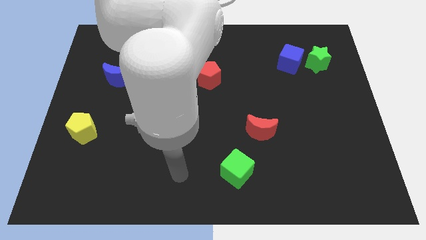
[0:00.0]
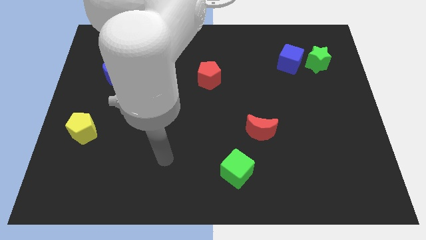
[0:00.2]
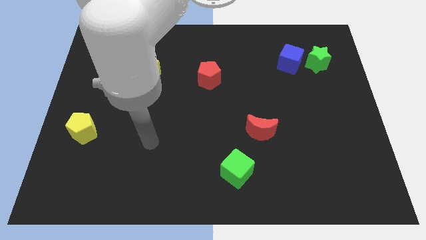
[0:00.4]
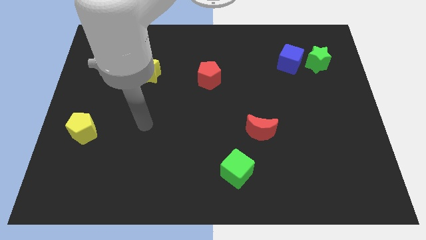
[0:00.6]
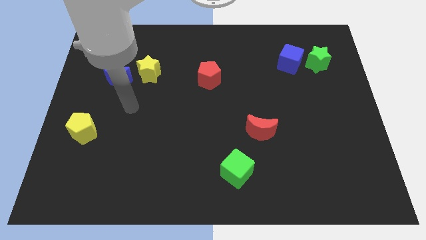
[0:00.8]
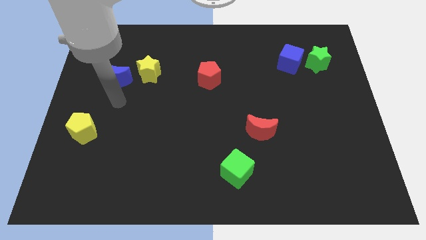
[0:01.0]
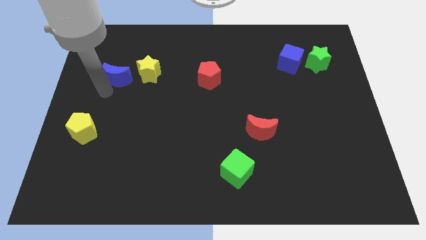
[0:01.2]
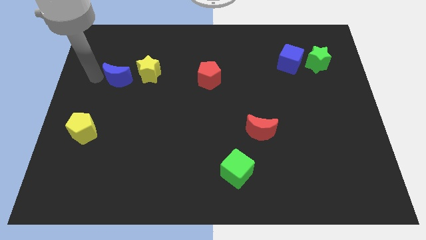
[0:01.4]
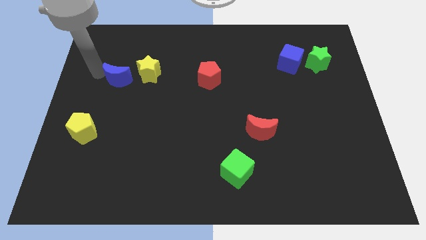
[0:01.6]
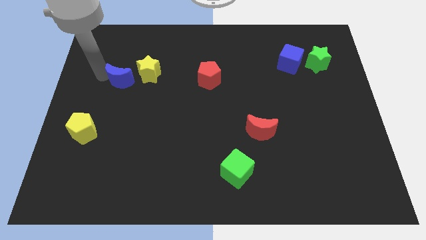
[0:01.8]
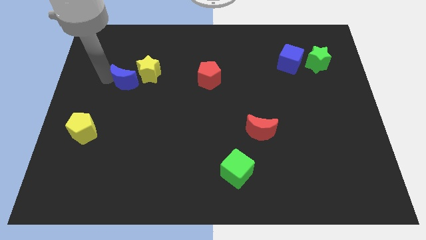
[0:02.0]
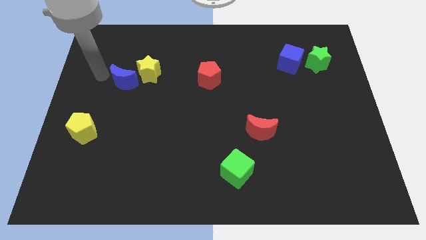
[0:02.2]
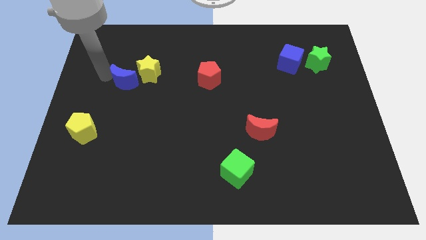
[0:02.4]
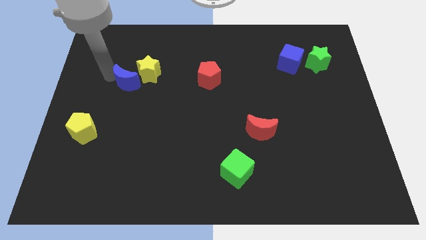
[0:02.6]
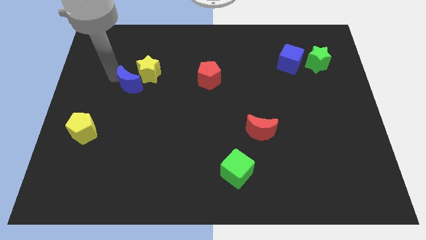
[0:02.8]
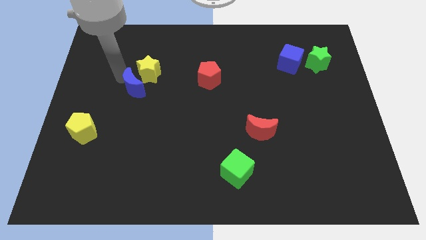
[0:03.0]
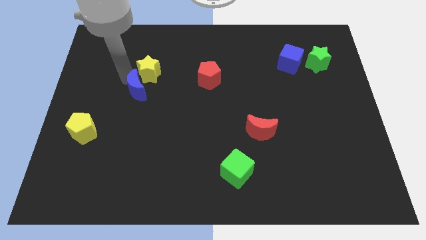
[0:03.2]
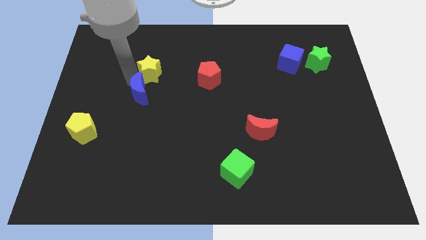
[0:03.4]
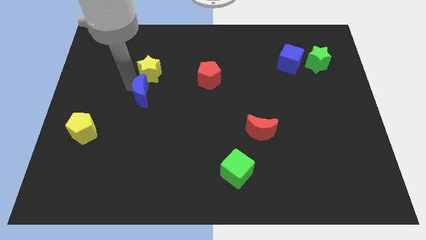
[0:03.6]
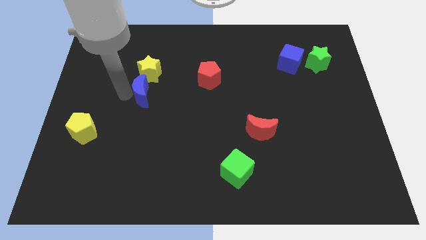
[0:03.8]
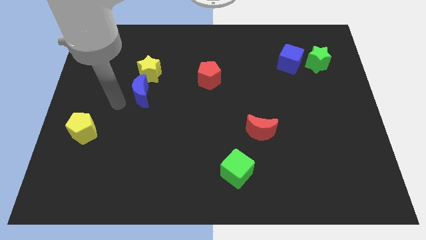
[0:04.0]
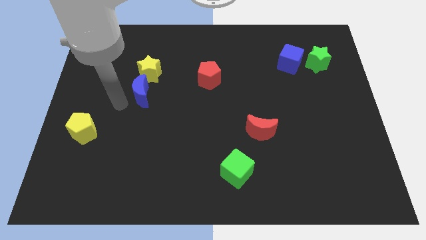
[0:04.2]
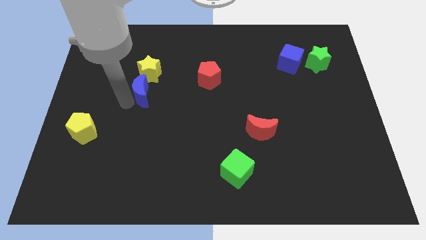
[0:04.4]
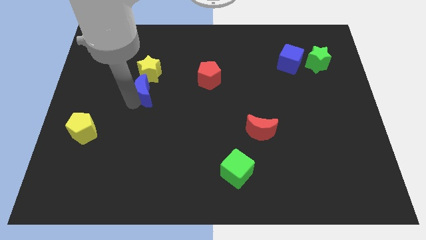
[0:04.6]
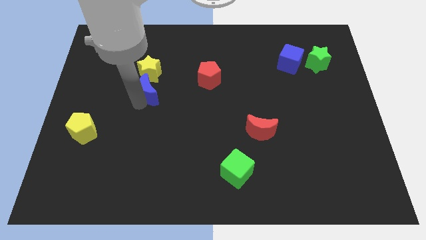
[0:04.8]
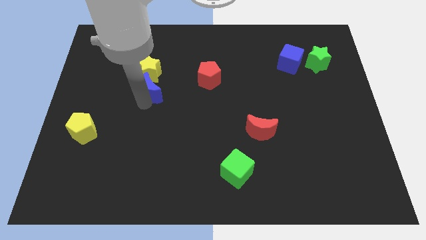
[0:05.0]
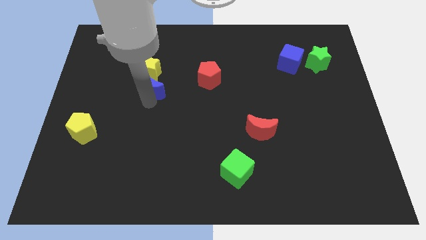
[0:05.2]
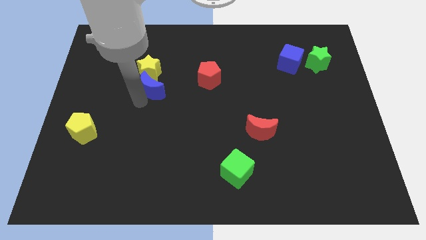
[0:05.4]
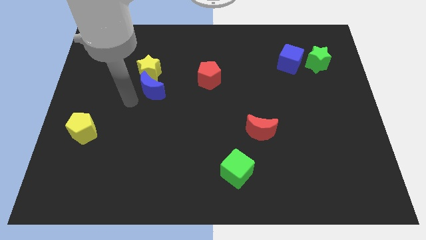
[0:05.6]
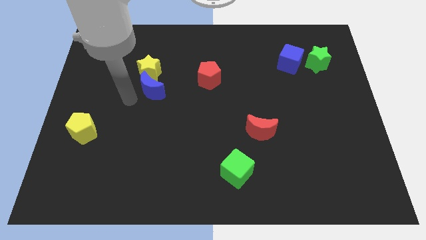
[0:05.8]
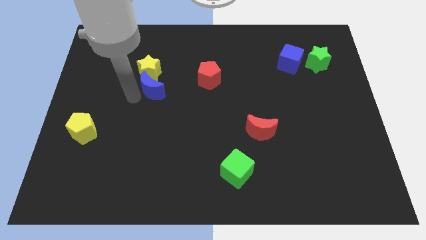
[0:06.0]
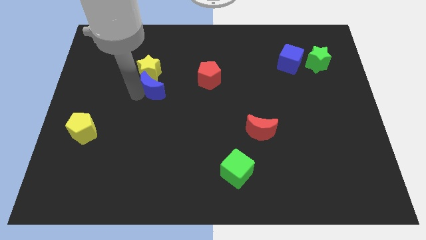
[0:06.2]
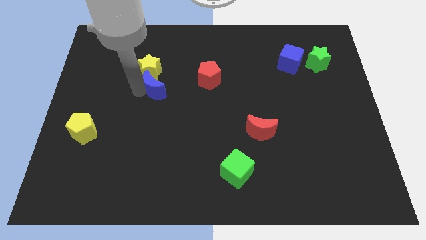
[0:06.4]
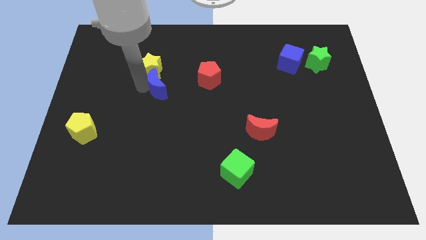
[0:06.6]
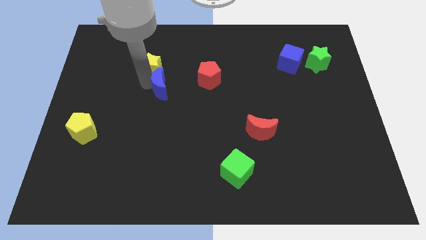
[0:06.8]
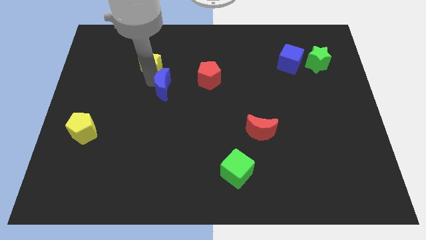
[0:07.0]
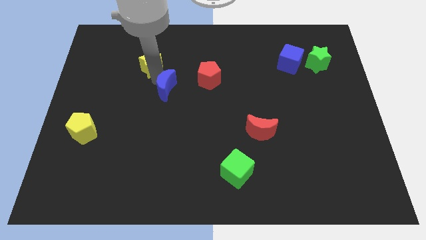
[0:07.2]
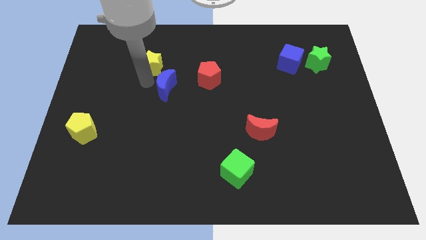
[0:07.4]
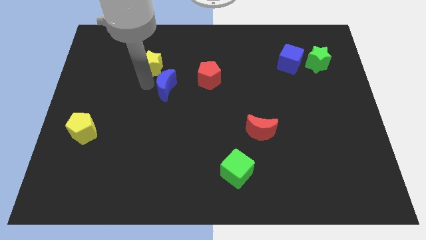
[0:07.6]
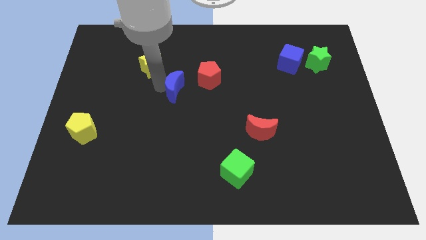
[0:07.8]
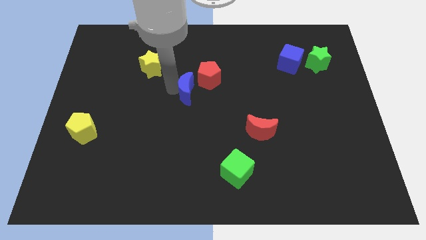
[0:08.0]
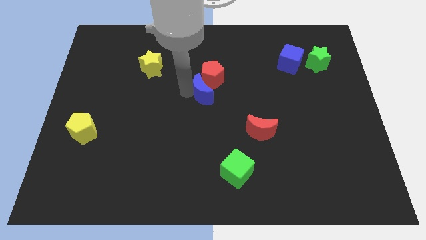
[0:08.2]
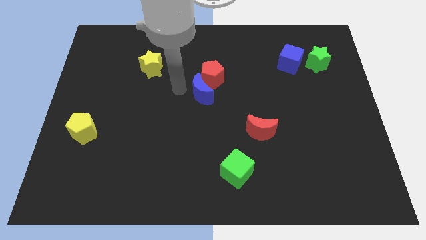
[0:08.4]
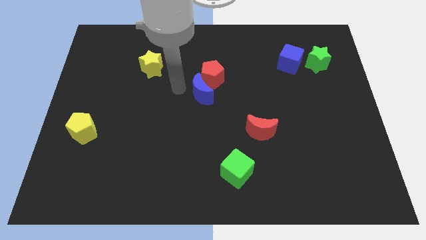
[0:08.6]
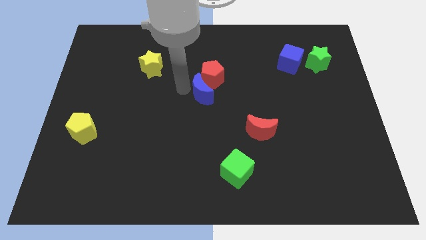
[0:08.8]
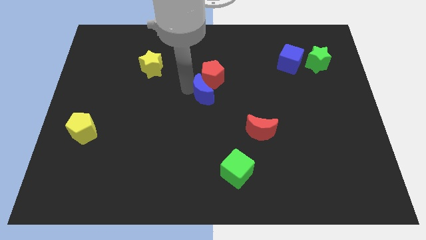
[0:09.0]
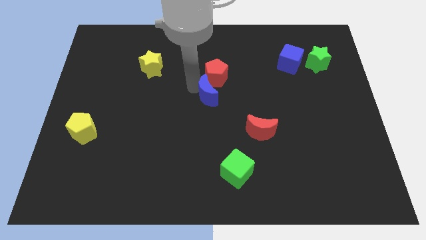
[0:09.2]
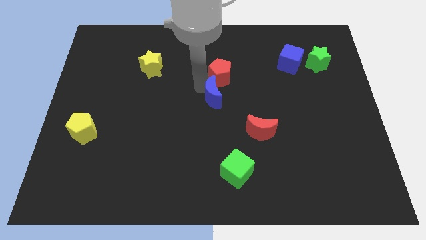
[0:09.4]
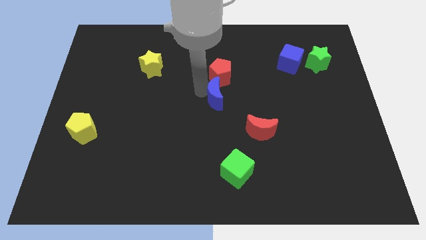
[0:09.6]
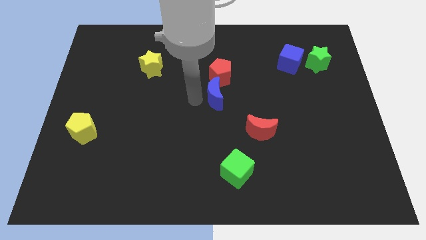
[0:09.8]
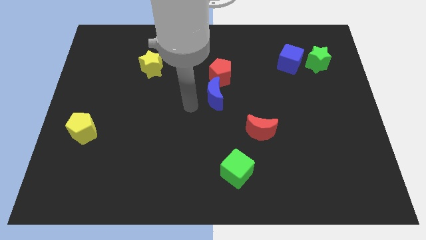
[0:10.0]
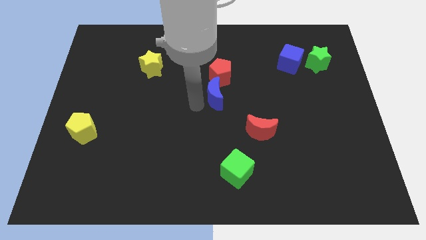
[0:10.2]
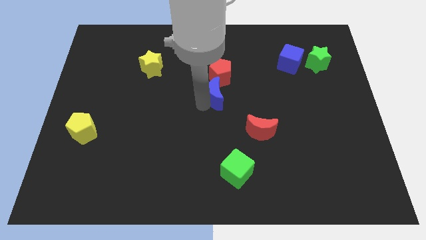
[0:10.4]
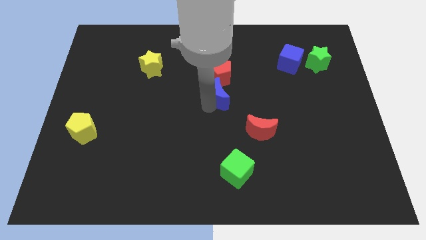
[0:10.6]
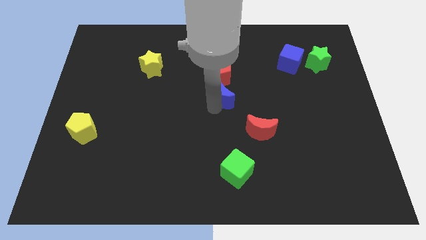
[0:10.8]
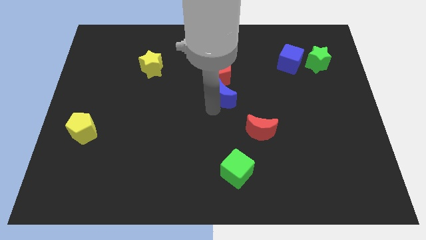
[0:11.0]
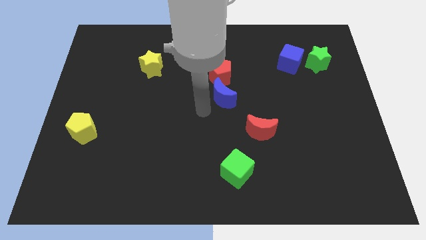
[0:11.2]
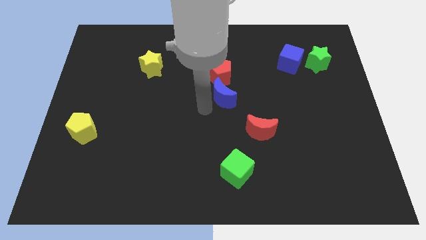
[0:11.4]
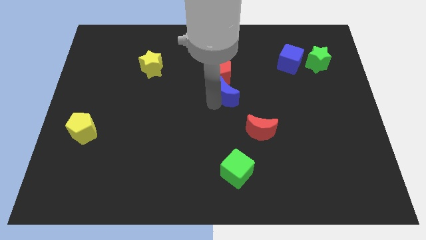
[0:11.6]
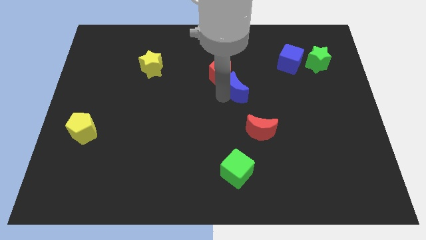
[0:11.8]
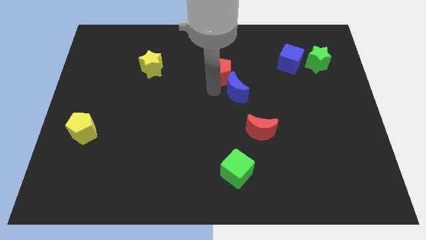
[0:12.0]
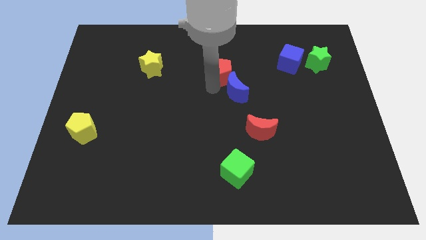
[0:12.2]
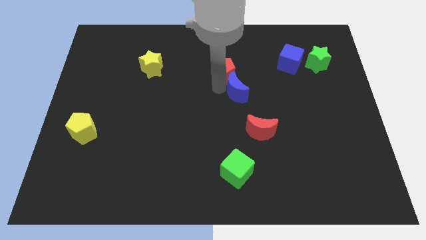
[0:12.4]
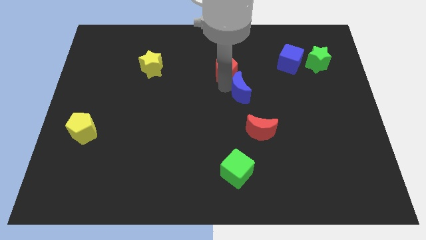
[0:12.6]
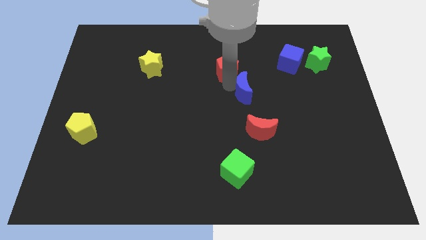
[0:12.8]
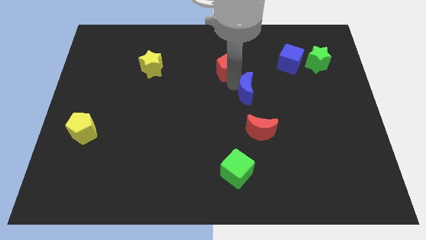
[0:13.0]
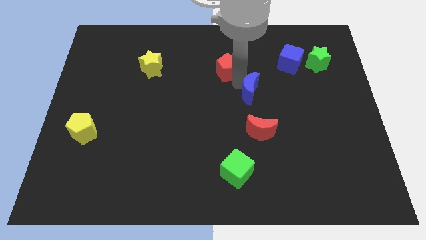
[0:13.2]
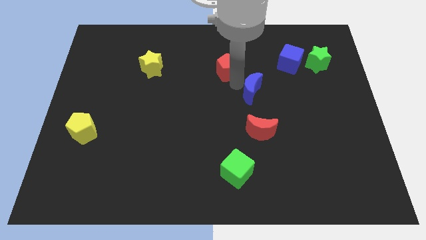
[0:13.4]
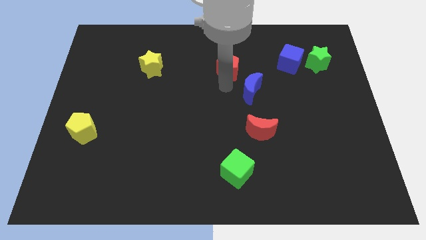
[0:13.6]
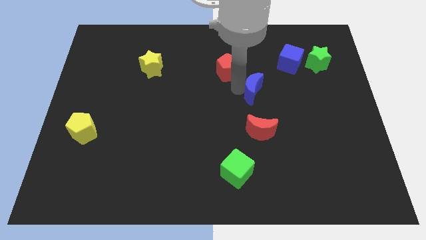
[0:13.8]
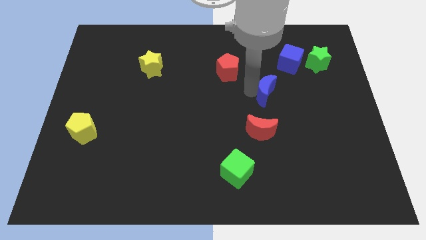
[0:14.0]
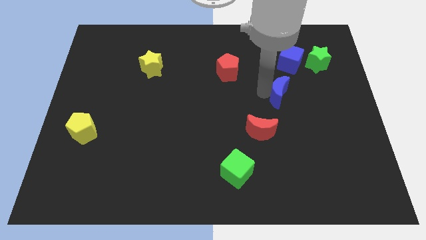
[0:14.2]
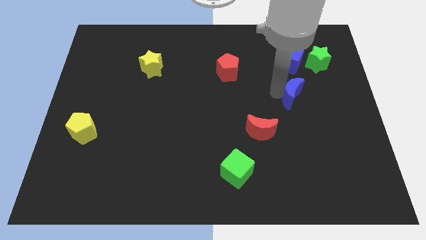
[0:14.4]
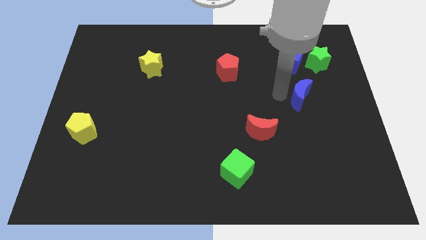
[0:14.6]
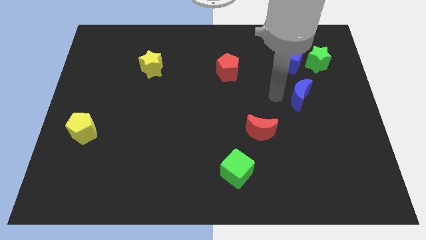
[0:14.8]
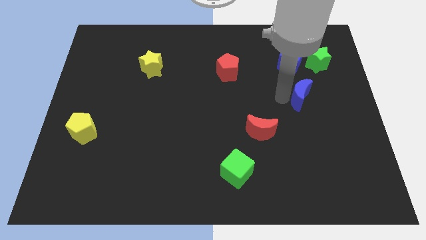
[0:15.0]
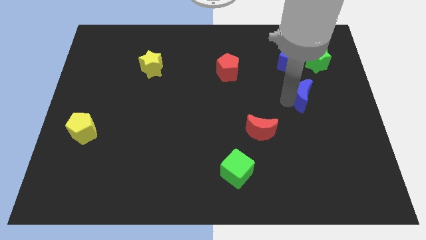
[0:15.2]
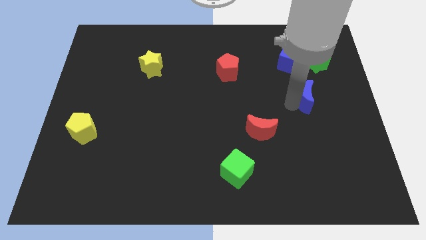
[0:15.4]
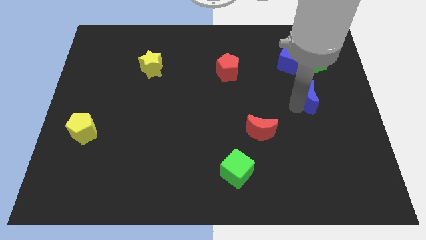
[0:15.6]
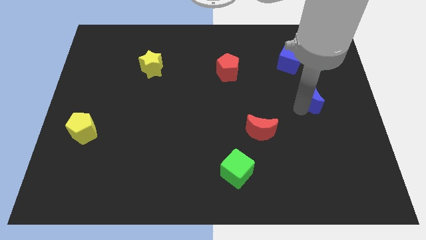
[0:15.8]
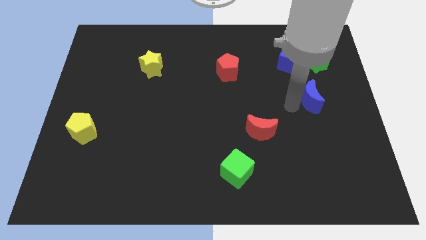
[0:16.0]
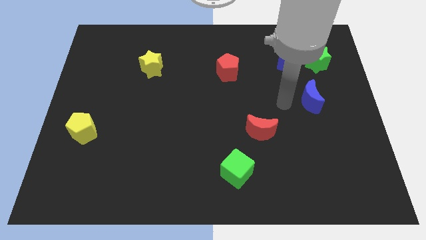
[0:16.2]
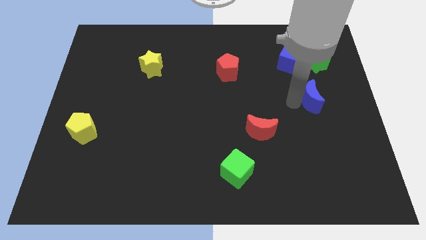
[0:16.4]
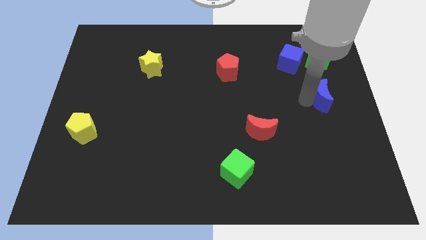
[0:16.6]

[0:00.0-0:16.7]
push the blue moon to the center right
